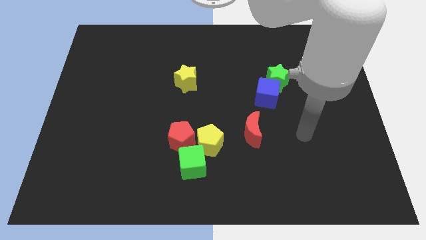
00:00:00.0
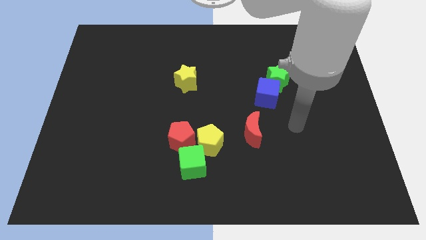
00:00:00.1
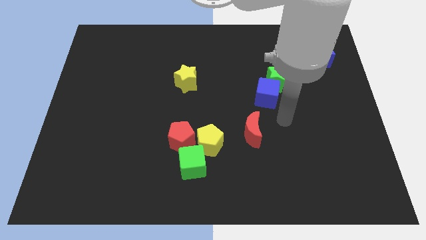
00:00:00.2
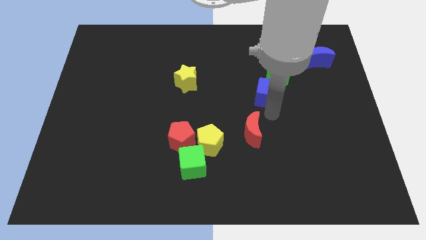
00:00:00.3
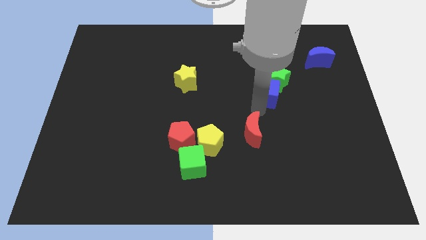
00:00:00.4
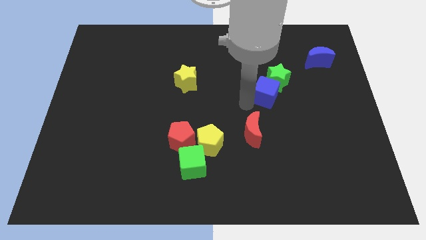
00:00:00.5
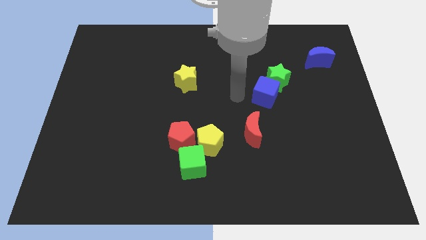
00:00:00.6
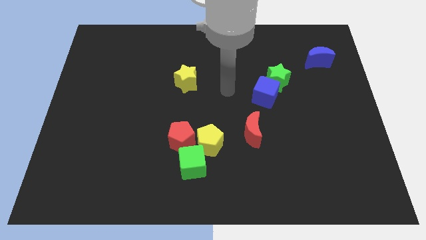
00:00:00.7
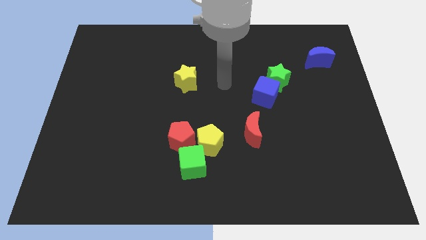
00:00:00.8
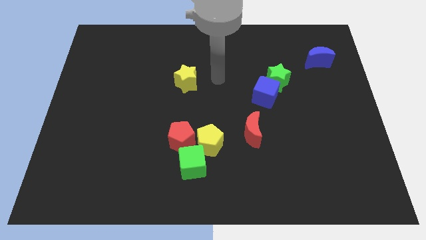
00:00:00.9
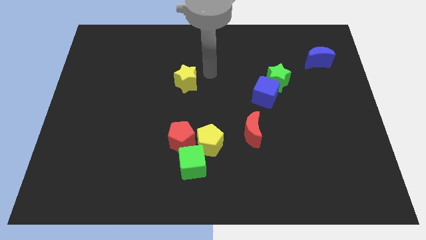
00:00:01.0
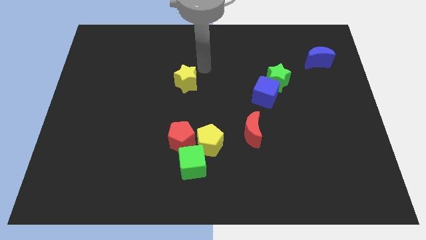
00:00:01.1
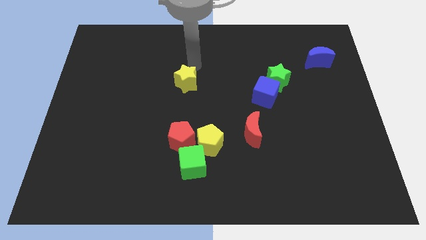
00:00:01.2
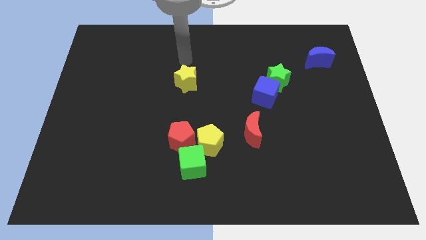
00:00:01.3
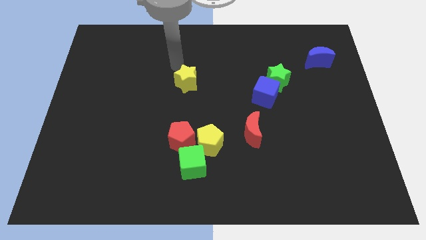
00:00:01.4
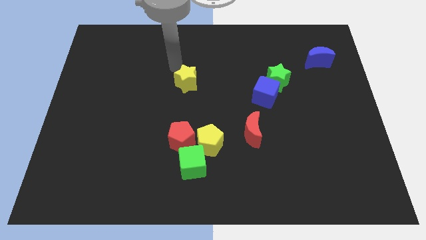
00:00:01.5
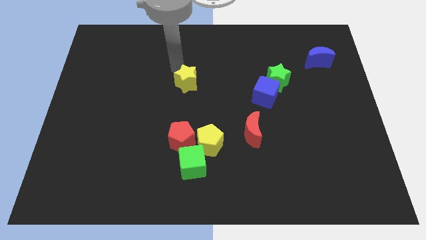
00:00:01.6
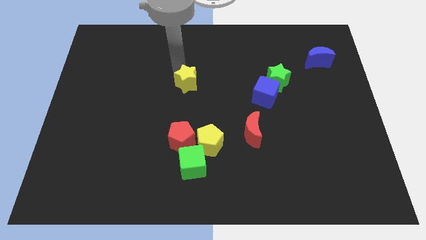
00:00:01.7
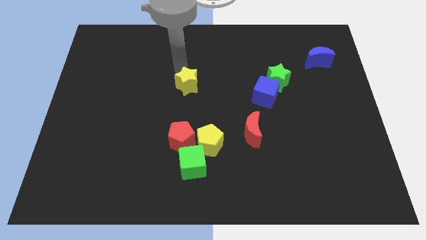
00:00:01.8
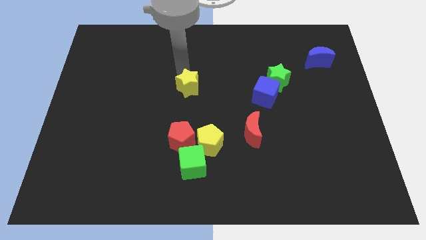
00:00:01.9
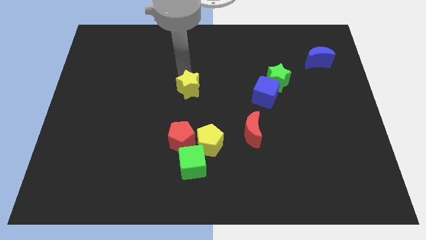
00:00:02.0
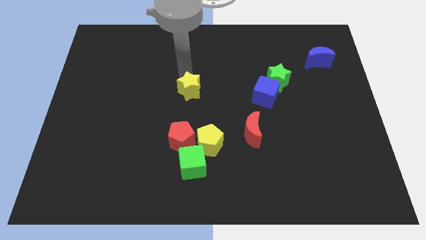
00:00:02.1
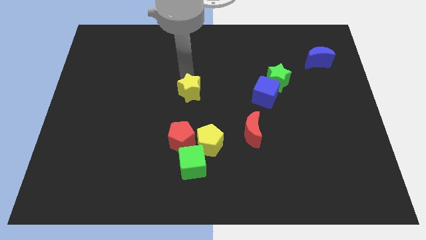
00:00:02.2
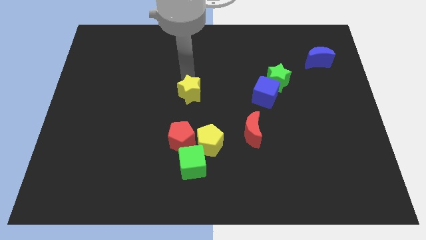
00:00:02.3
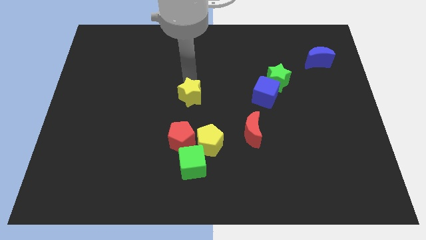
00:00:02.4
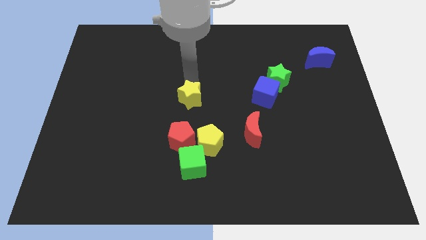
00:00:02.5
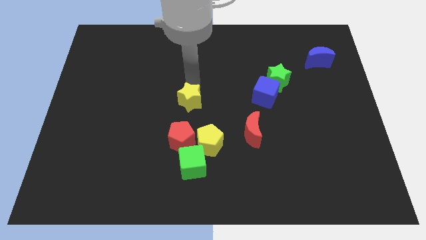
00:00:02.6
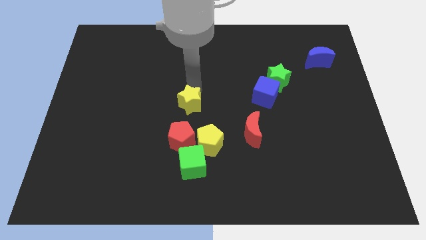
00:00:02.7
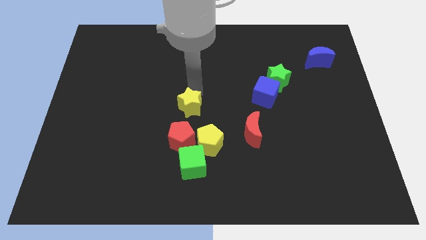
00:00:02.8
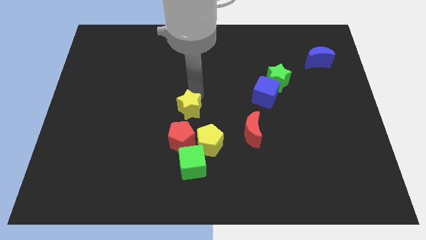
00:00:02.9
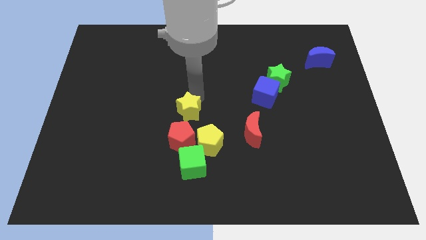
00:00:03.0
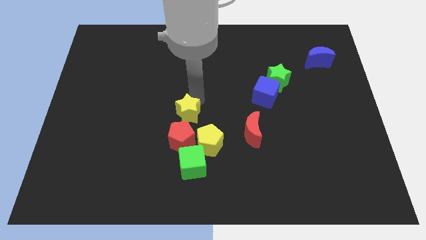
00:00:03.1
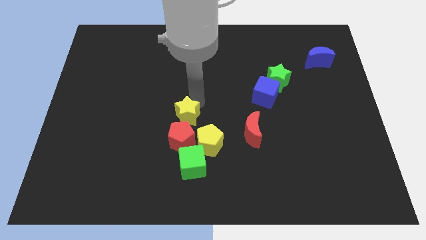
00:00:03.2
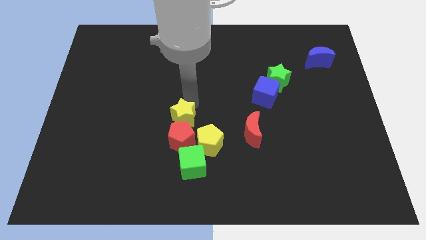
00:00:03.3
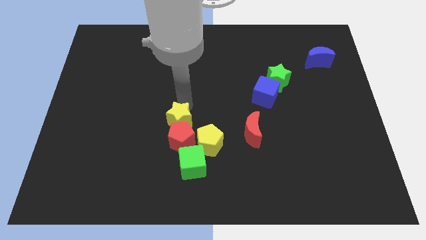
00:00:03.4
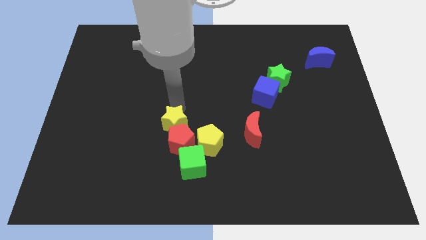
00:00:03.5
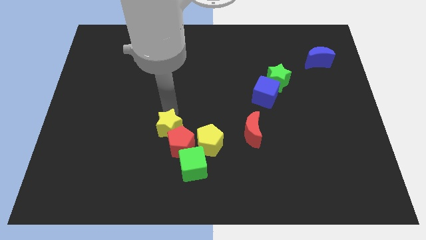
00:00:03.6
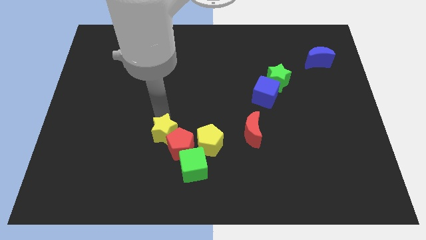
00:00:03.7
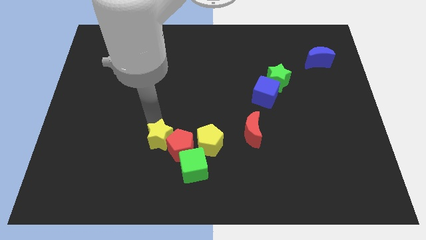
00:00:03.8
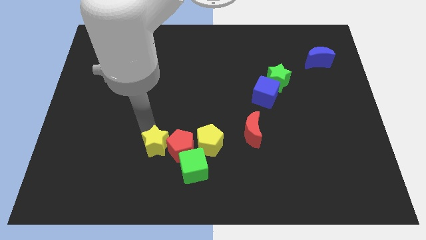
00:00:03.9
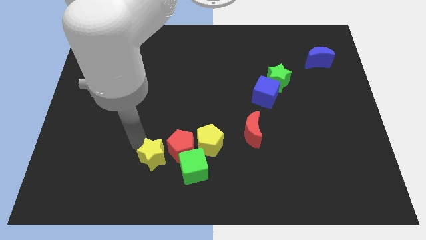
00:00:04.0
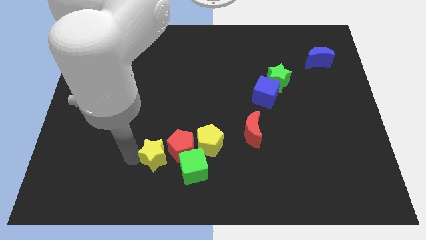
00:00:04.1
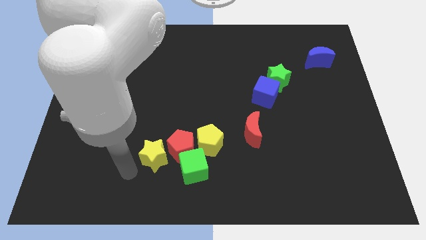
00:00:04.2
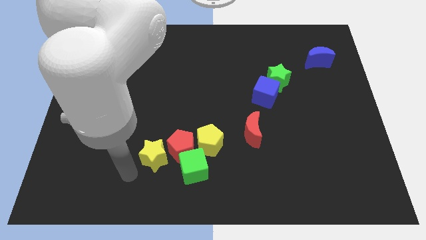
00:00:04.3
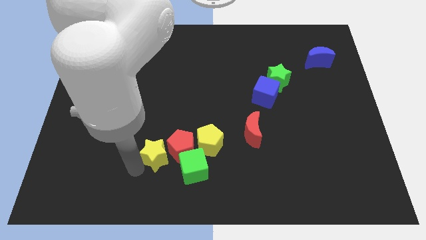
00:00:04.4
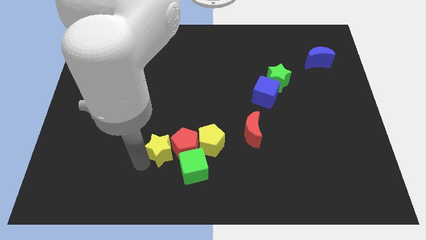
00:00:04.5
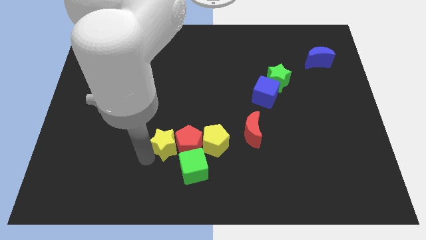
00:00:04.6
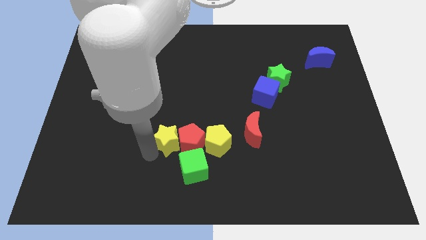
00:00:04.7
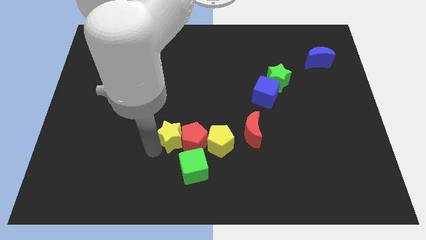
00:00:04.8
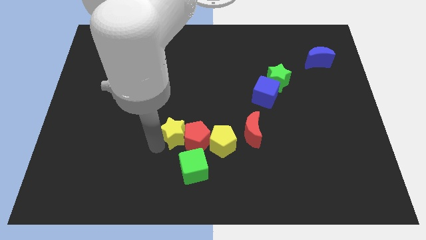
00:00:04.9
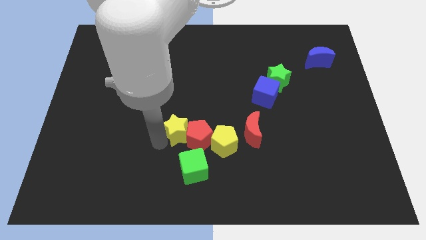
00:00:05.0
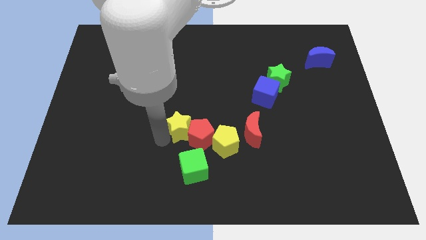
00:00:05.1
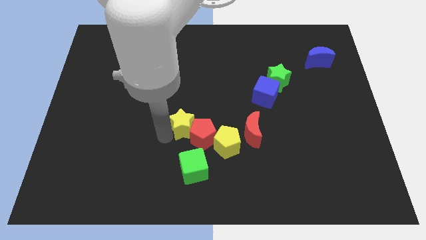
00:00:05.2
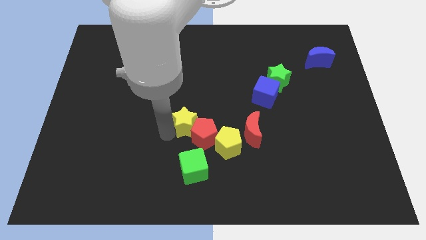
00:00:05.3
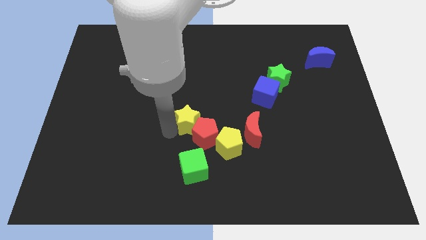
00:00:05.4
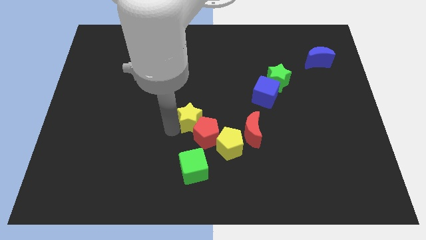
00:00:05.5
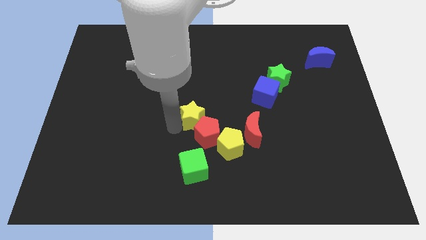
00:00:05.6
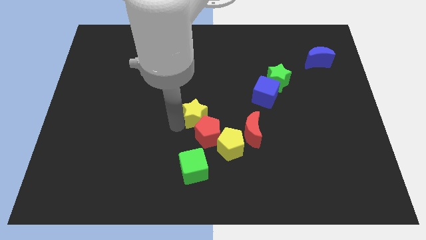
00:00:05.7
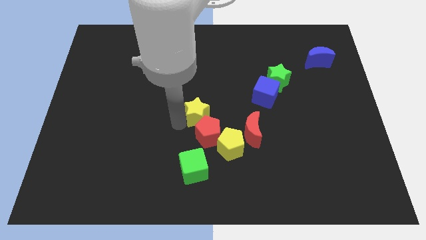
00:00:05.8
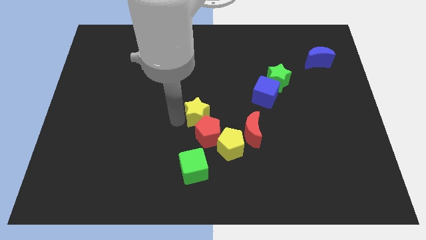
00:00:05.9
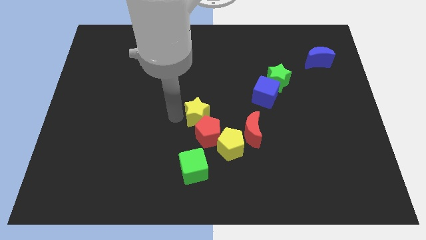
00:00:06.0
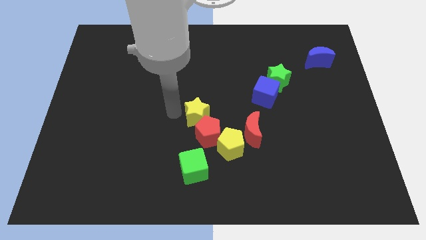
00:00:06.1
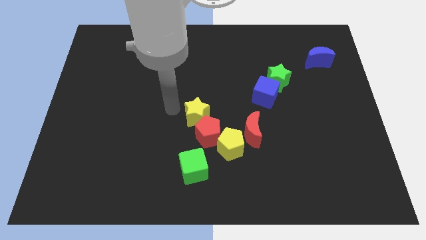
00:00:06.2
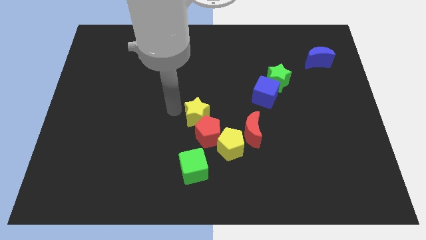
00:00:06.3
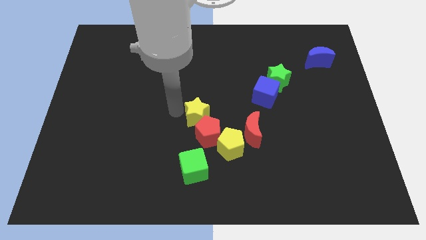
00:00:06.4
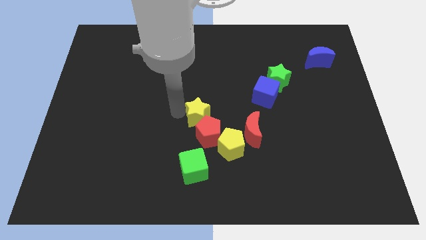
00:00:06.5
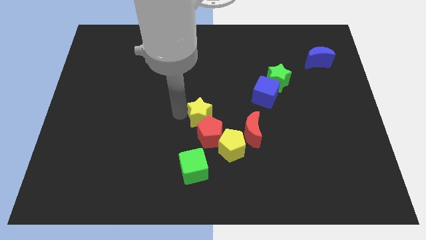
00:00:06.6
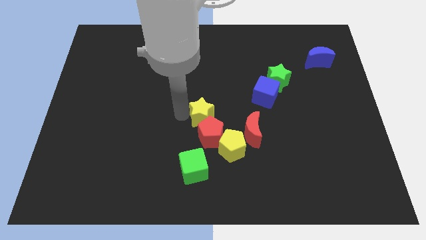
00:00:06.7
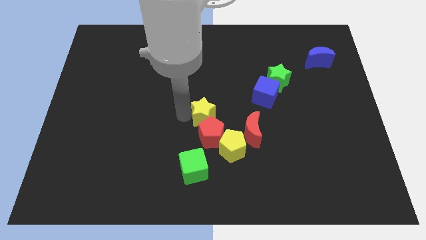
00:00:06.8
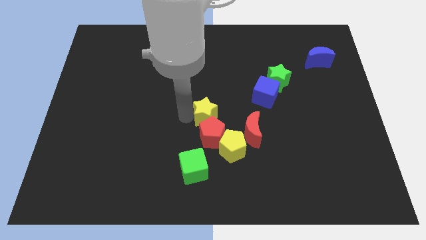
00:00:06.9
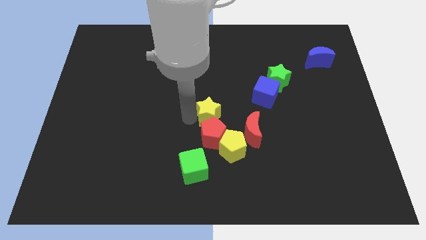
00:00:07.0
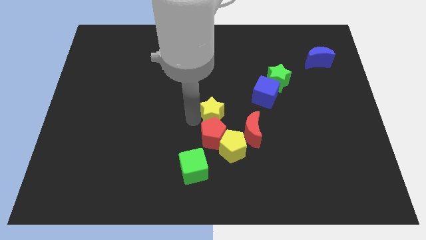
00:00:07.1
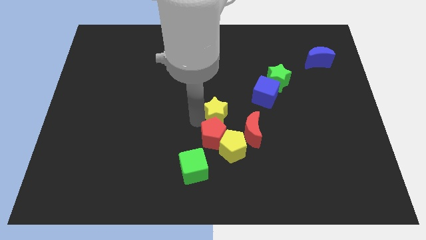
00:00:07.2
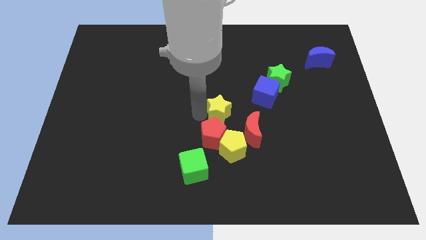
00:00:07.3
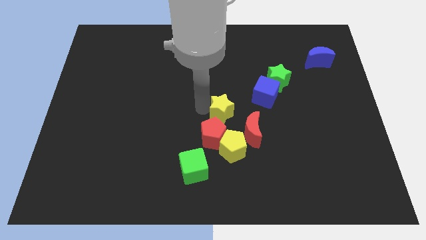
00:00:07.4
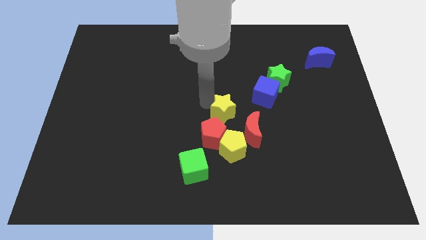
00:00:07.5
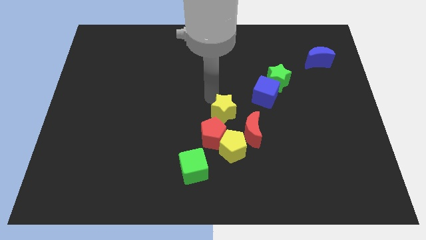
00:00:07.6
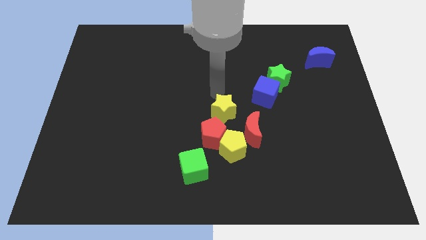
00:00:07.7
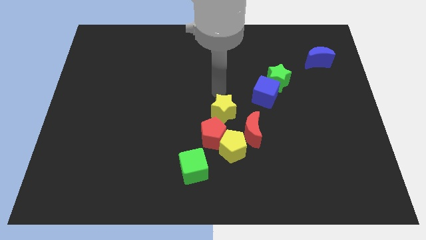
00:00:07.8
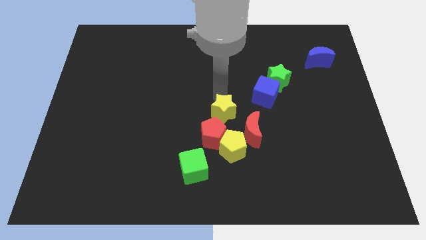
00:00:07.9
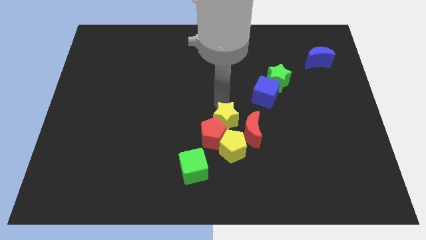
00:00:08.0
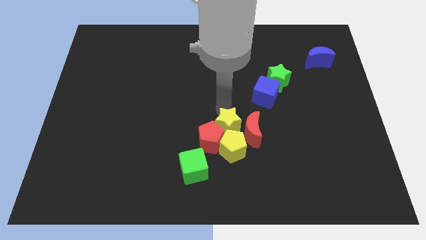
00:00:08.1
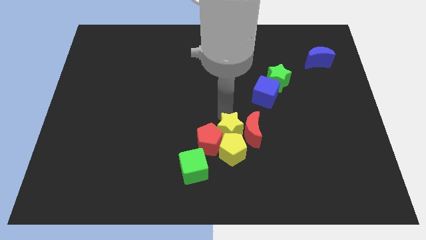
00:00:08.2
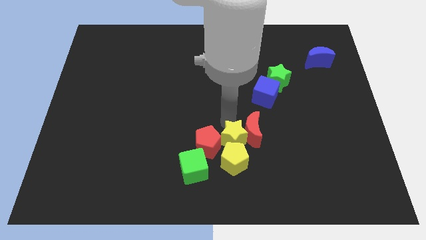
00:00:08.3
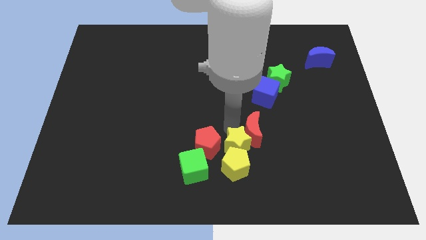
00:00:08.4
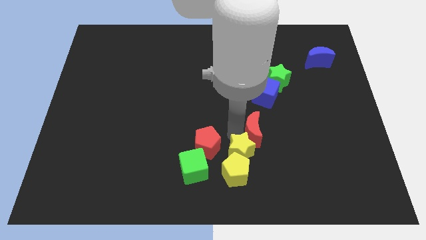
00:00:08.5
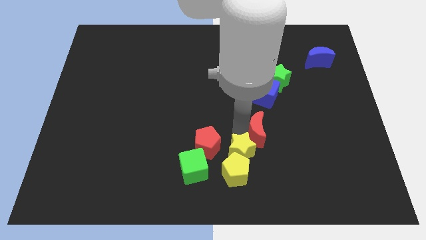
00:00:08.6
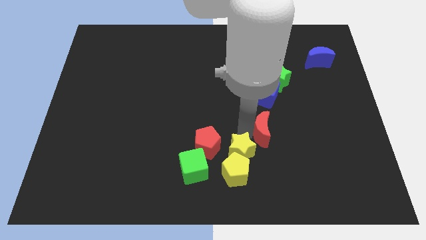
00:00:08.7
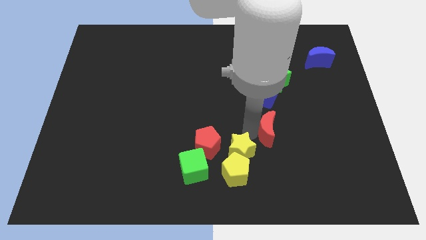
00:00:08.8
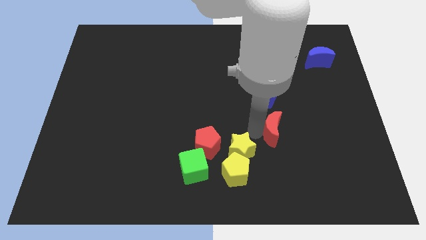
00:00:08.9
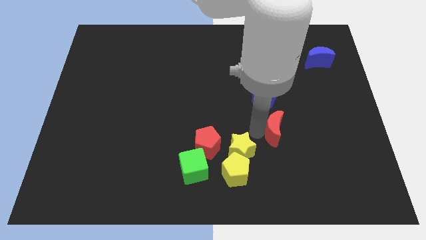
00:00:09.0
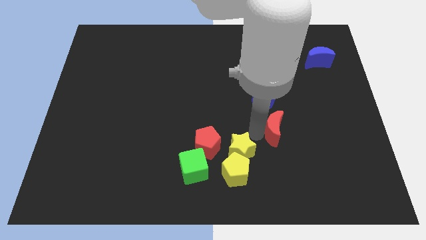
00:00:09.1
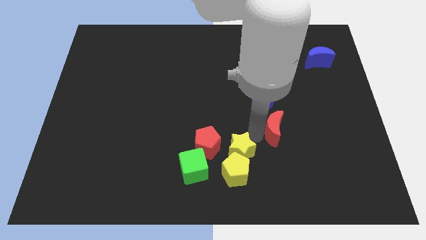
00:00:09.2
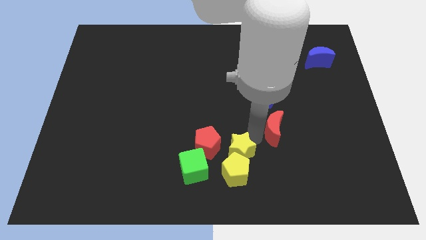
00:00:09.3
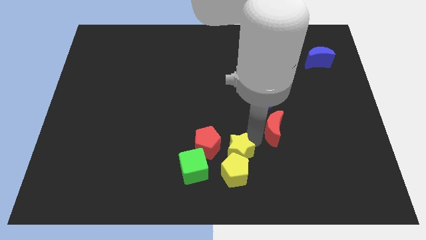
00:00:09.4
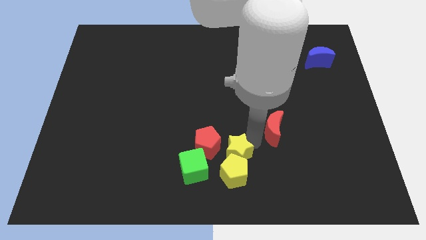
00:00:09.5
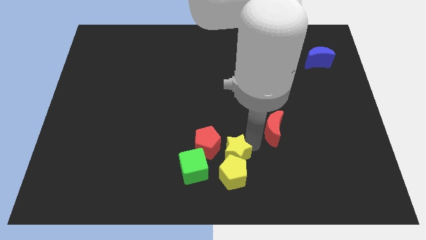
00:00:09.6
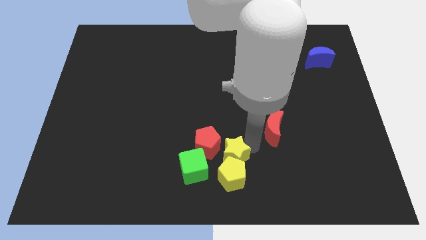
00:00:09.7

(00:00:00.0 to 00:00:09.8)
move the yellow star to the bottom side
